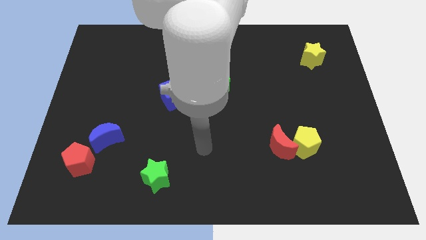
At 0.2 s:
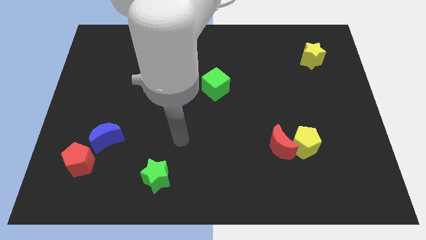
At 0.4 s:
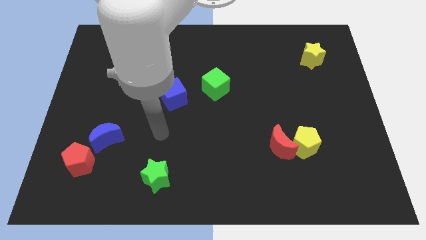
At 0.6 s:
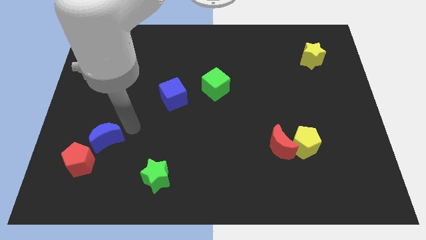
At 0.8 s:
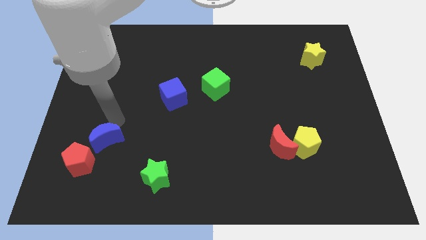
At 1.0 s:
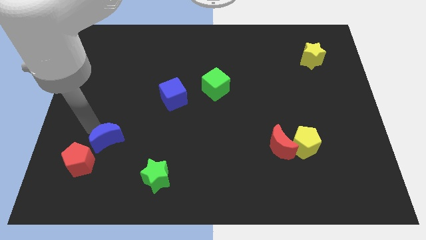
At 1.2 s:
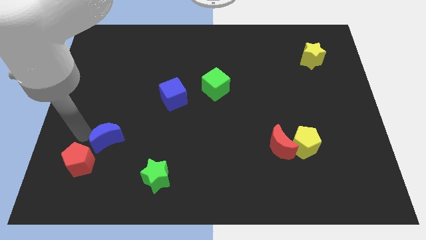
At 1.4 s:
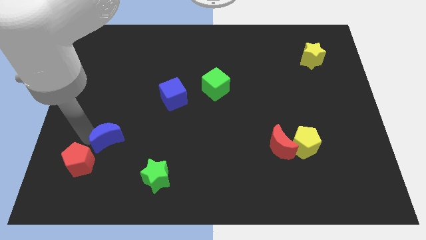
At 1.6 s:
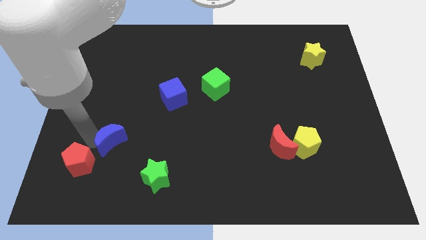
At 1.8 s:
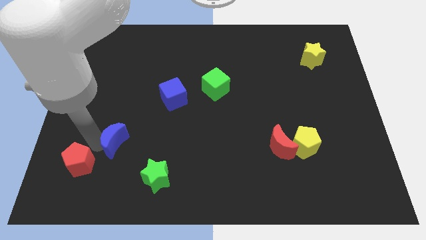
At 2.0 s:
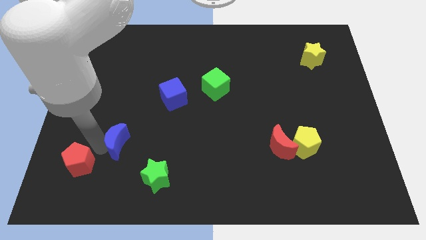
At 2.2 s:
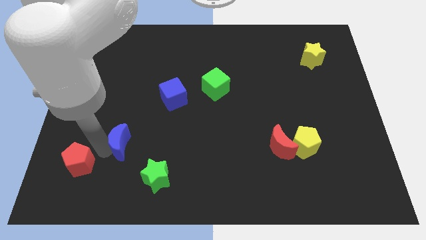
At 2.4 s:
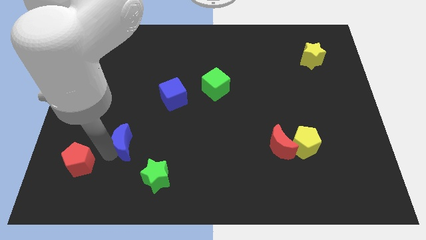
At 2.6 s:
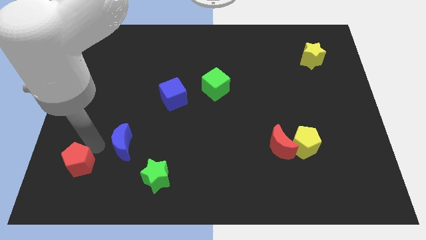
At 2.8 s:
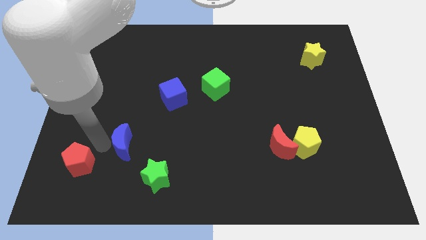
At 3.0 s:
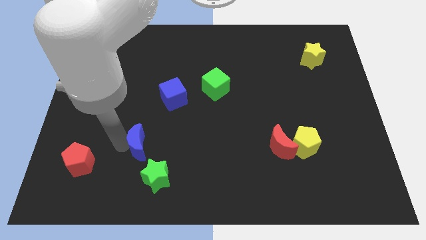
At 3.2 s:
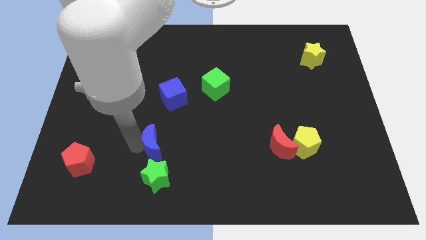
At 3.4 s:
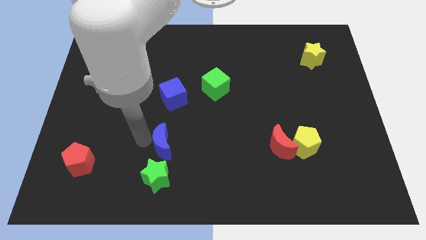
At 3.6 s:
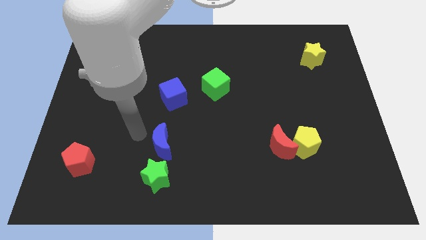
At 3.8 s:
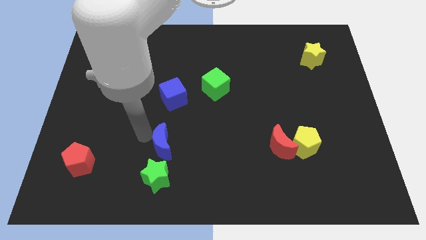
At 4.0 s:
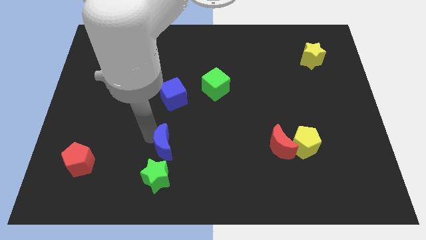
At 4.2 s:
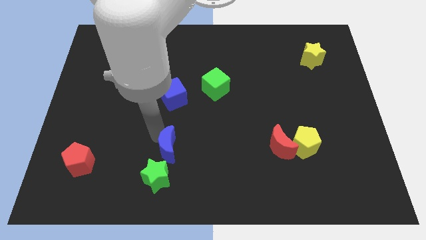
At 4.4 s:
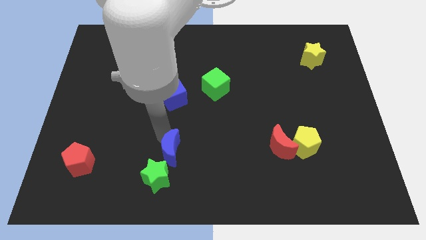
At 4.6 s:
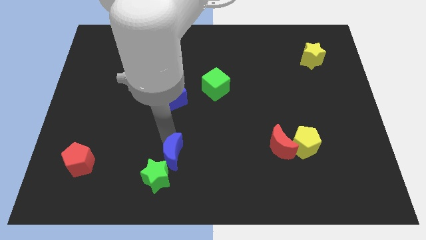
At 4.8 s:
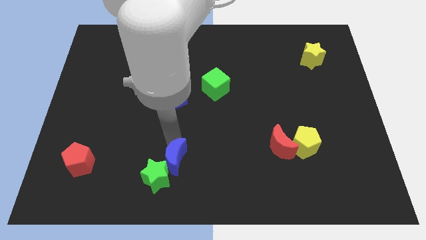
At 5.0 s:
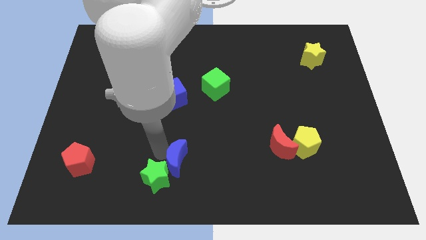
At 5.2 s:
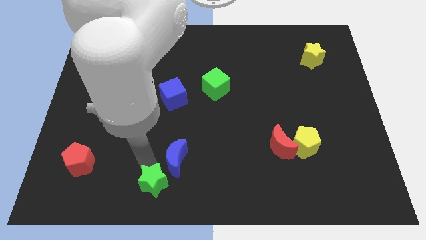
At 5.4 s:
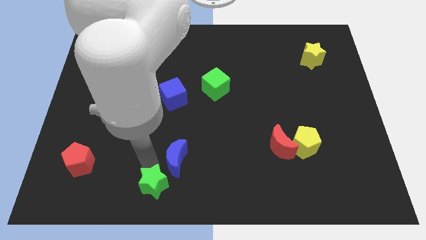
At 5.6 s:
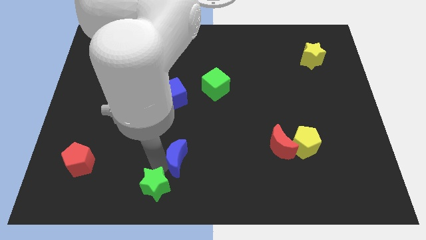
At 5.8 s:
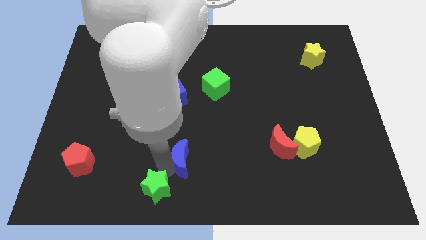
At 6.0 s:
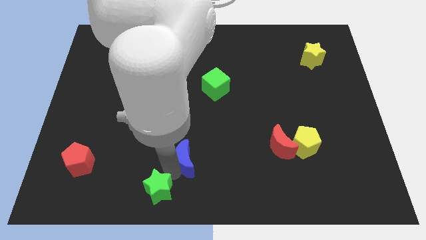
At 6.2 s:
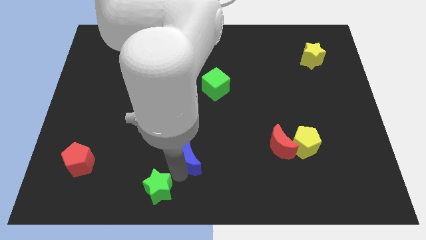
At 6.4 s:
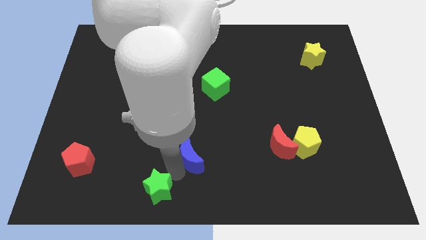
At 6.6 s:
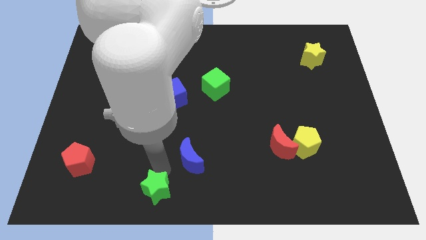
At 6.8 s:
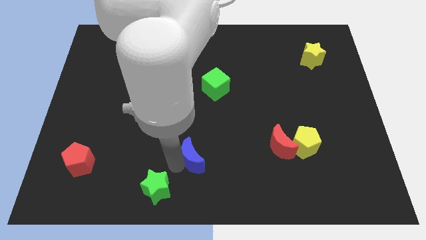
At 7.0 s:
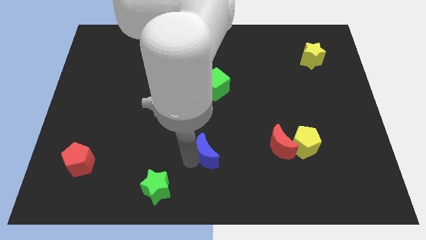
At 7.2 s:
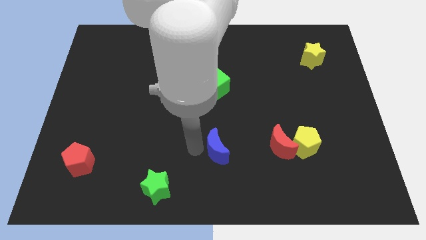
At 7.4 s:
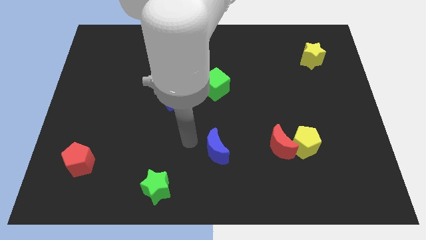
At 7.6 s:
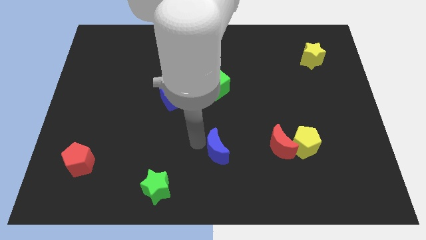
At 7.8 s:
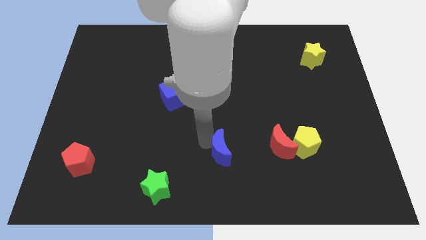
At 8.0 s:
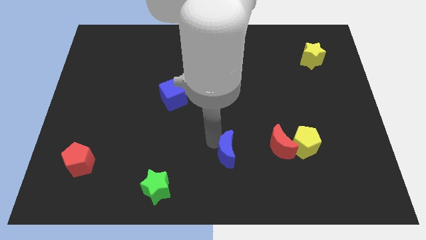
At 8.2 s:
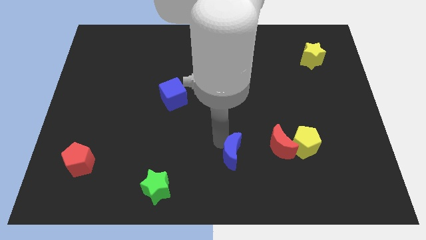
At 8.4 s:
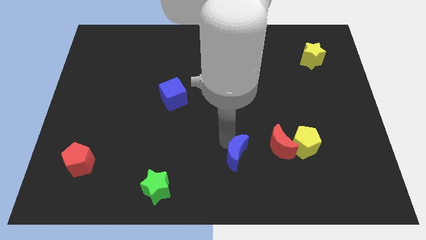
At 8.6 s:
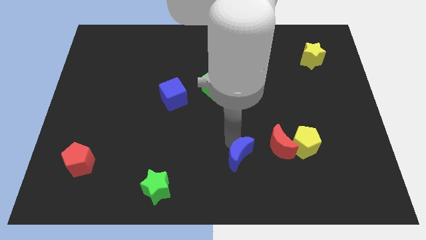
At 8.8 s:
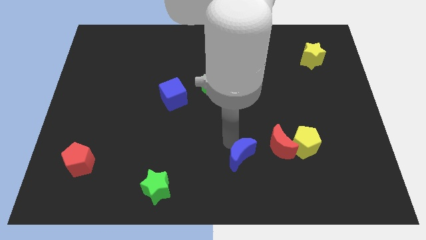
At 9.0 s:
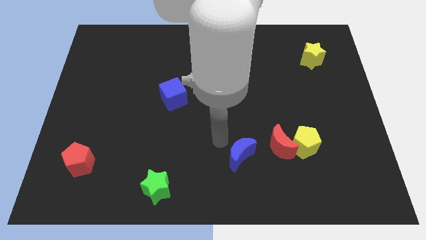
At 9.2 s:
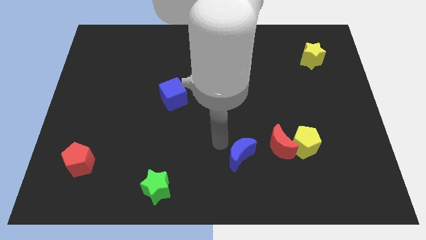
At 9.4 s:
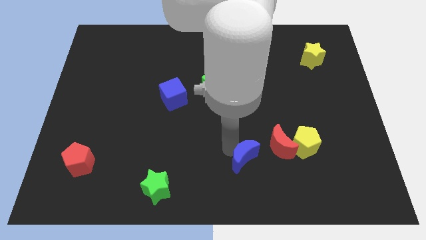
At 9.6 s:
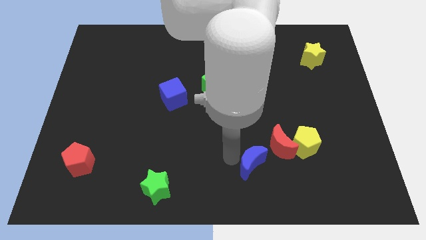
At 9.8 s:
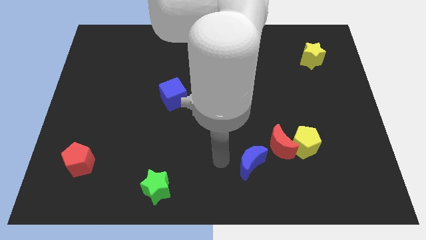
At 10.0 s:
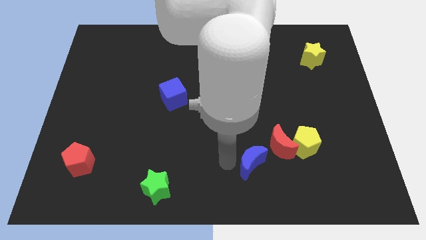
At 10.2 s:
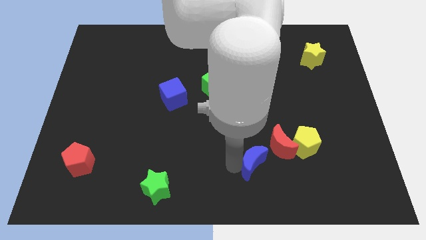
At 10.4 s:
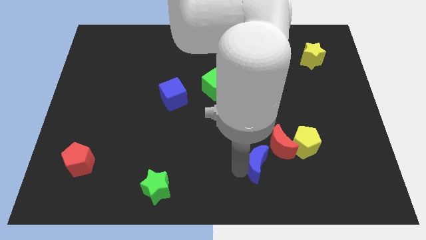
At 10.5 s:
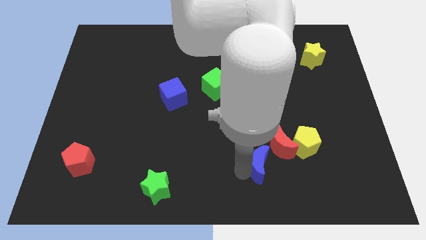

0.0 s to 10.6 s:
push the blue moon diagonally down and to the left of the yellow pentagon

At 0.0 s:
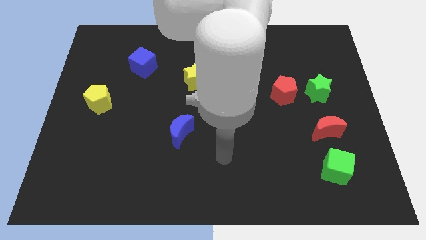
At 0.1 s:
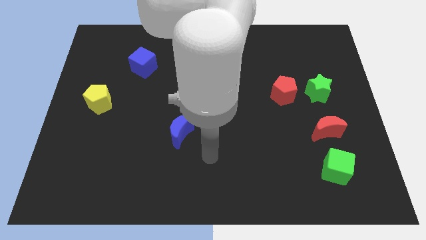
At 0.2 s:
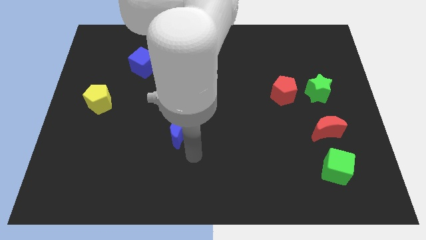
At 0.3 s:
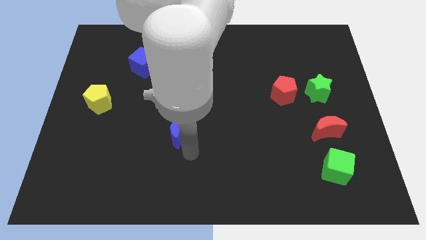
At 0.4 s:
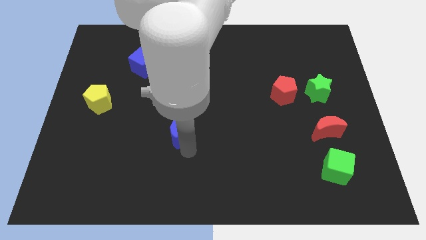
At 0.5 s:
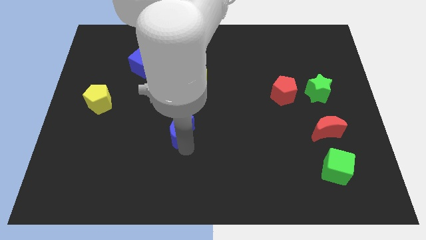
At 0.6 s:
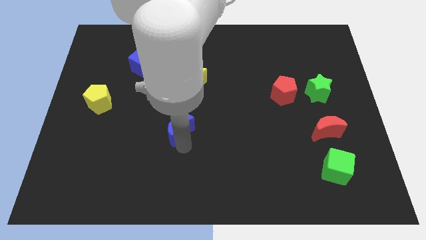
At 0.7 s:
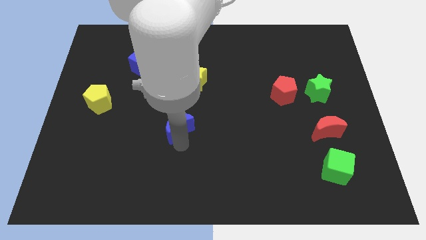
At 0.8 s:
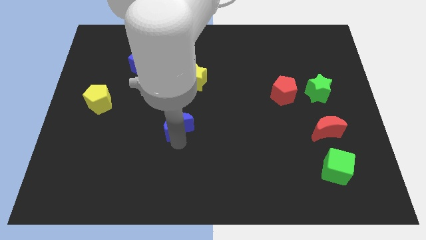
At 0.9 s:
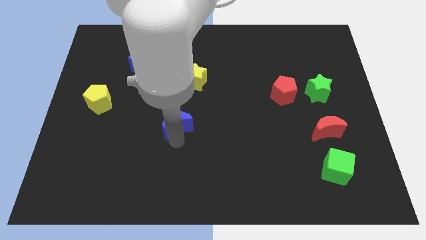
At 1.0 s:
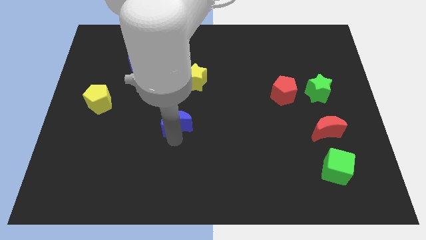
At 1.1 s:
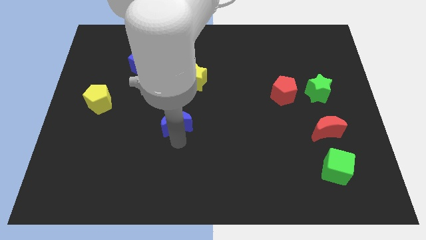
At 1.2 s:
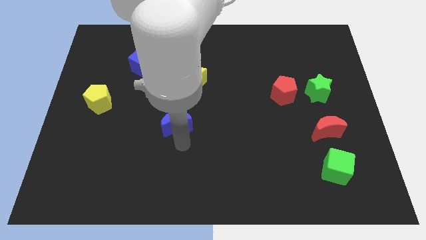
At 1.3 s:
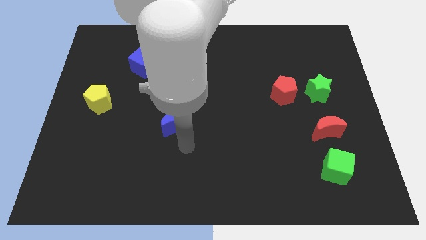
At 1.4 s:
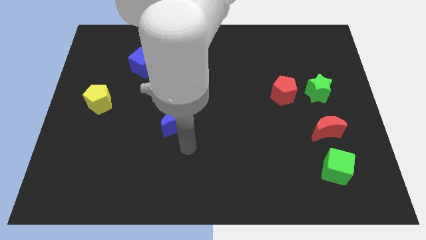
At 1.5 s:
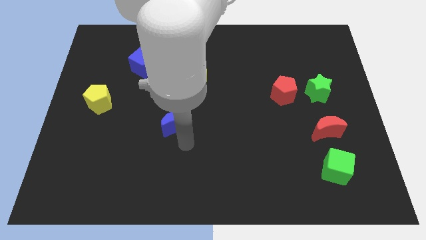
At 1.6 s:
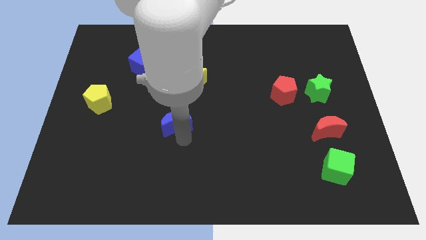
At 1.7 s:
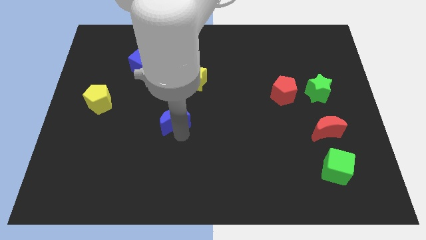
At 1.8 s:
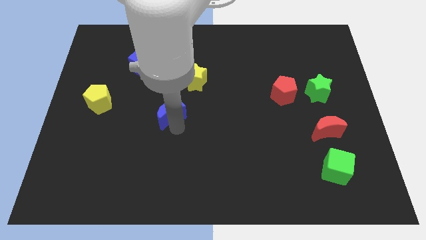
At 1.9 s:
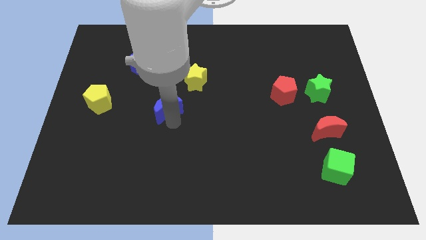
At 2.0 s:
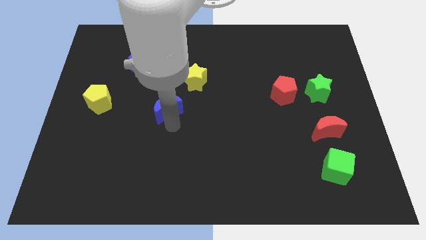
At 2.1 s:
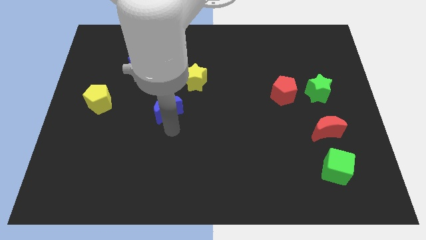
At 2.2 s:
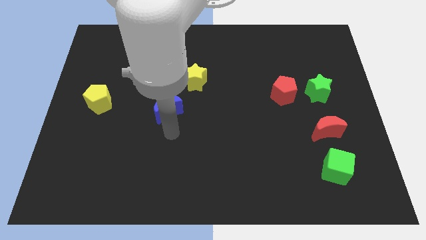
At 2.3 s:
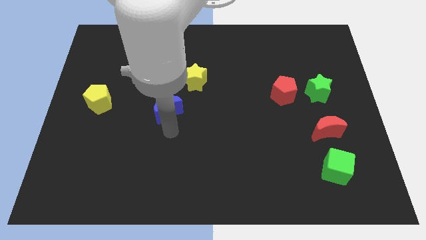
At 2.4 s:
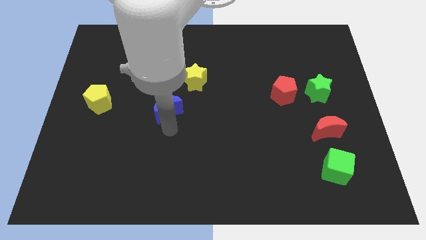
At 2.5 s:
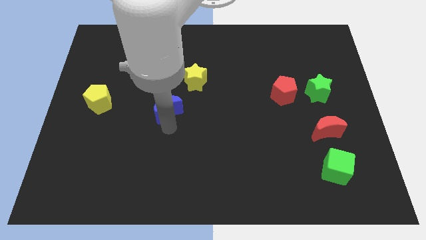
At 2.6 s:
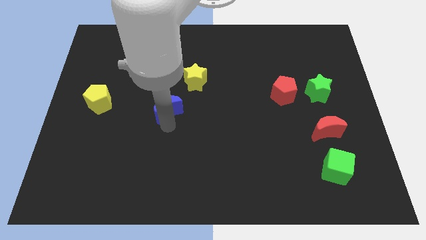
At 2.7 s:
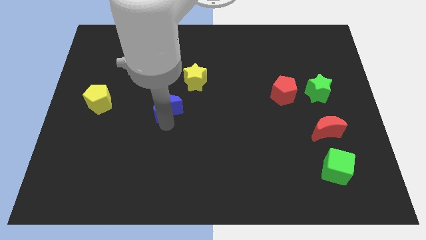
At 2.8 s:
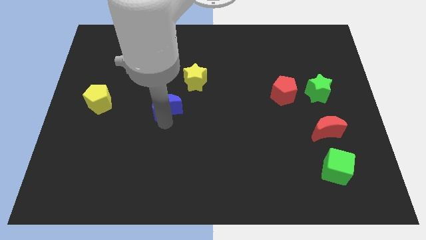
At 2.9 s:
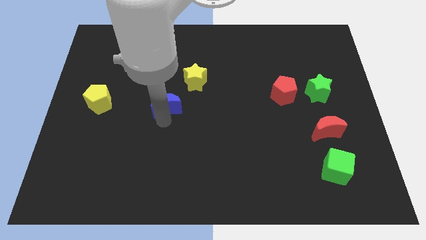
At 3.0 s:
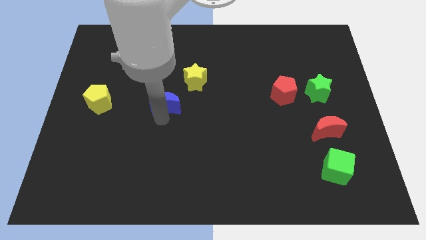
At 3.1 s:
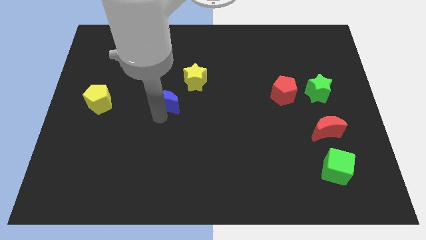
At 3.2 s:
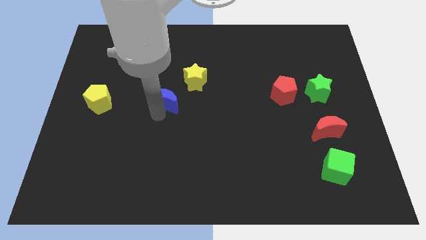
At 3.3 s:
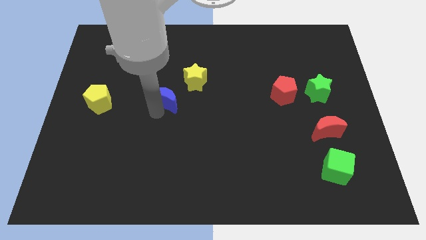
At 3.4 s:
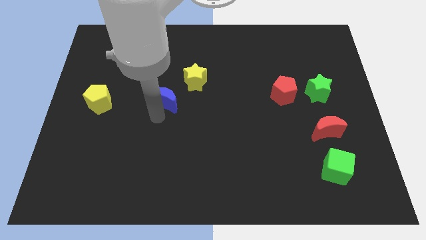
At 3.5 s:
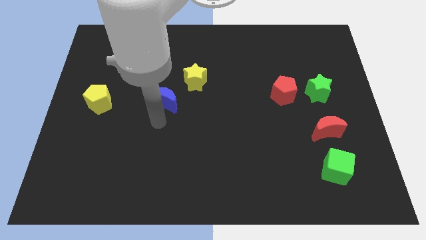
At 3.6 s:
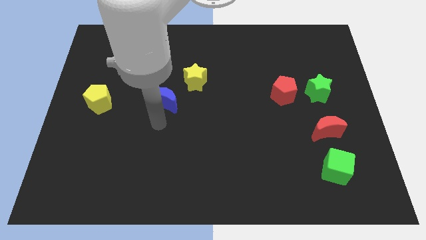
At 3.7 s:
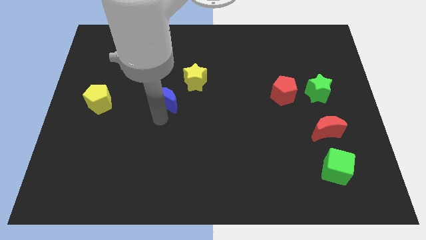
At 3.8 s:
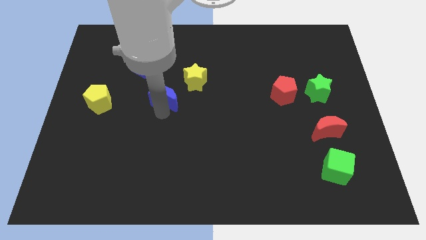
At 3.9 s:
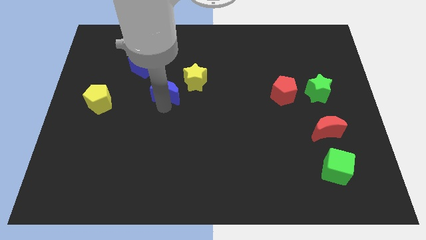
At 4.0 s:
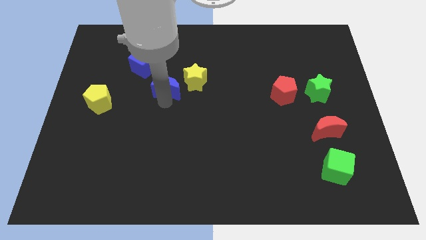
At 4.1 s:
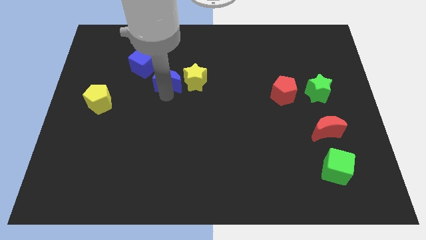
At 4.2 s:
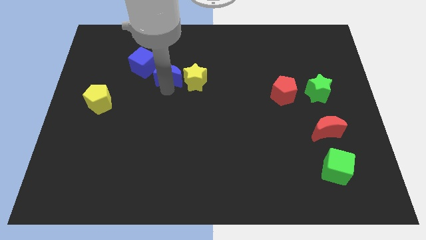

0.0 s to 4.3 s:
put the blue moon diagonally up and to the left of the yellow star
